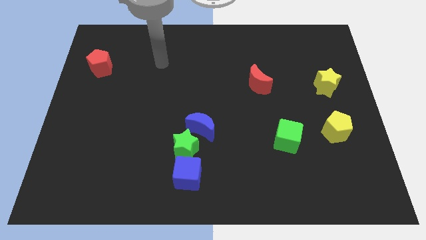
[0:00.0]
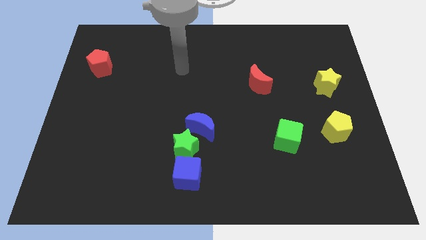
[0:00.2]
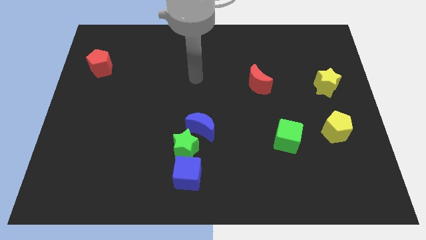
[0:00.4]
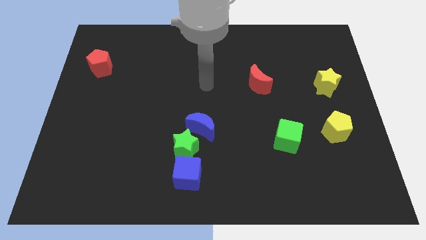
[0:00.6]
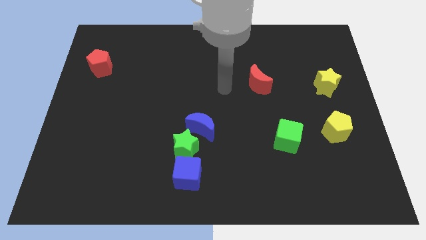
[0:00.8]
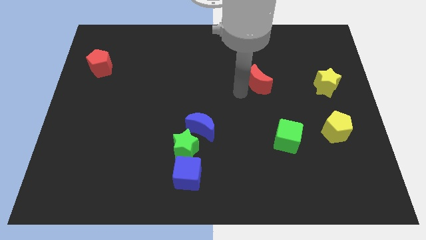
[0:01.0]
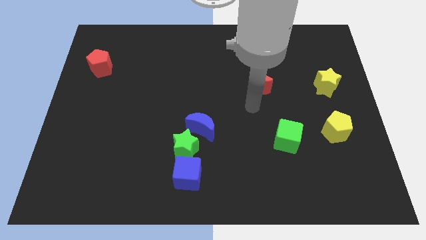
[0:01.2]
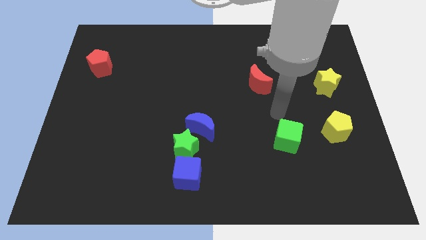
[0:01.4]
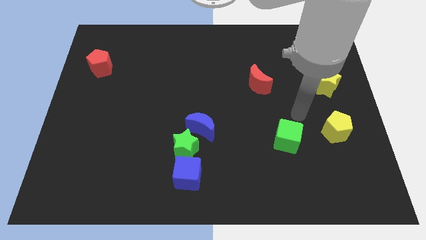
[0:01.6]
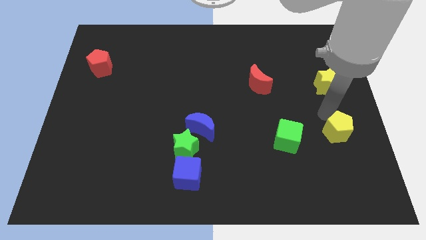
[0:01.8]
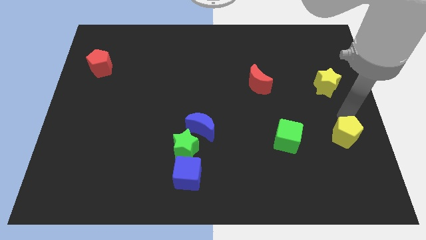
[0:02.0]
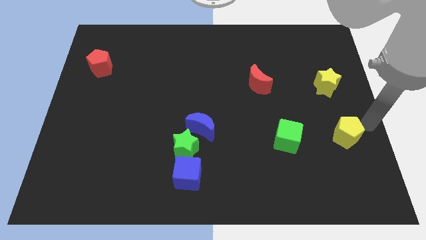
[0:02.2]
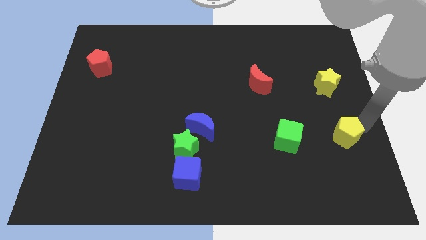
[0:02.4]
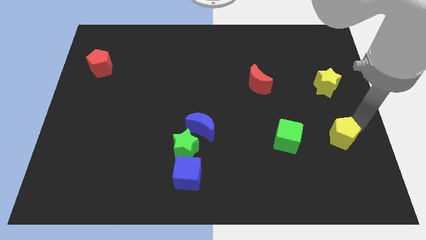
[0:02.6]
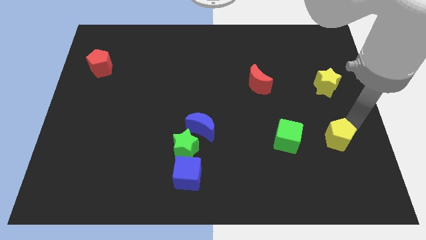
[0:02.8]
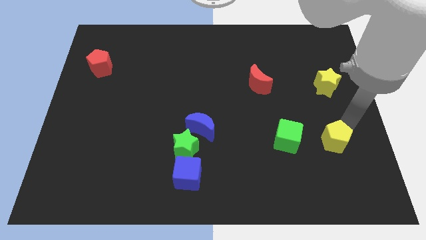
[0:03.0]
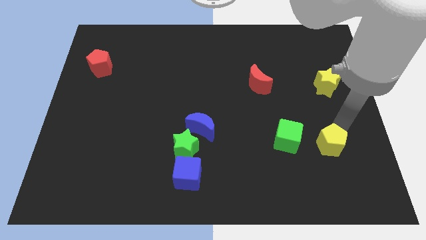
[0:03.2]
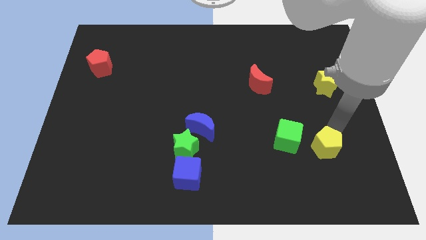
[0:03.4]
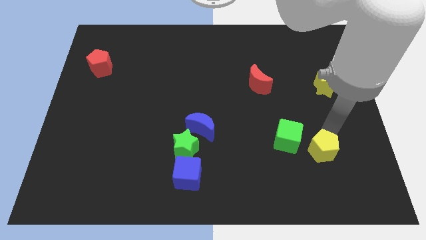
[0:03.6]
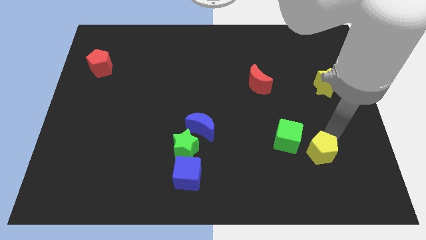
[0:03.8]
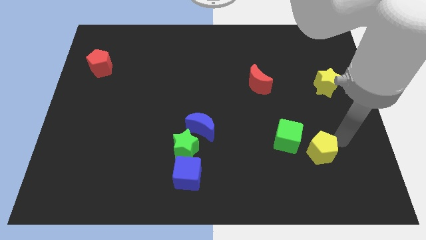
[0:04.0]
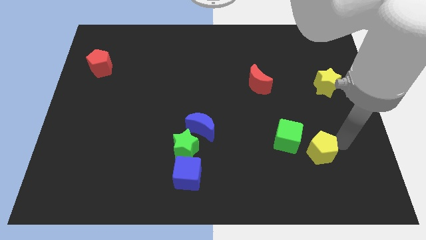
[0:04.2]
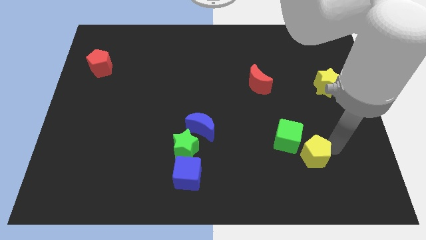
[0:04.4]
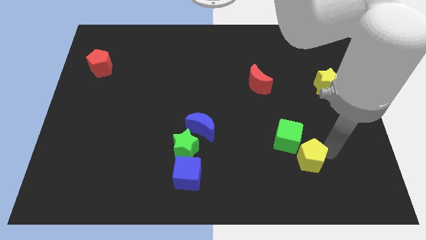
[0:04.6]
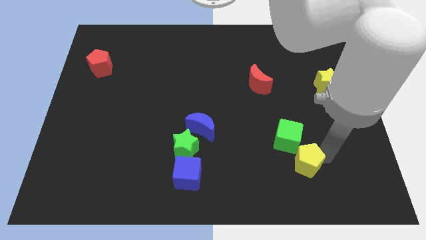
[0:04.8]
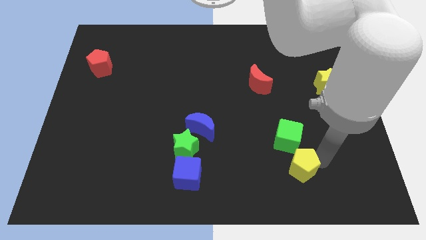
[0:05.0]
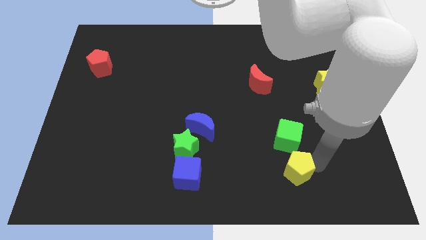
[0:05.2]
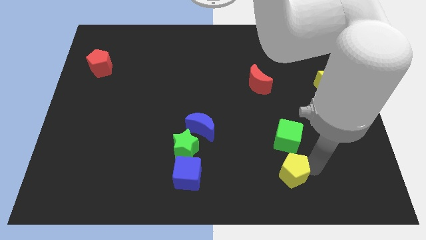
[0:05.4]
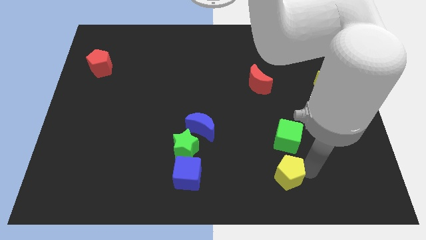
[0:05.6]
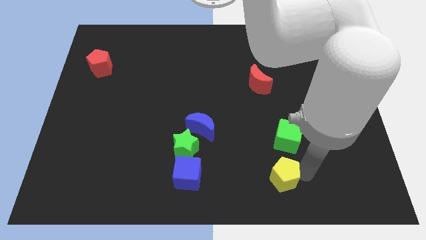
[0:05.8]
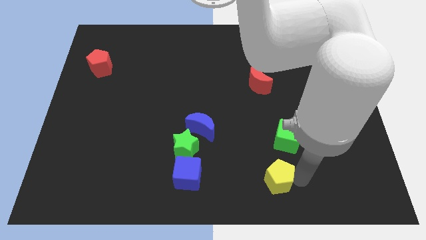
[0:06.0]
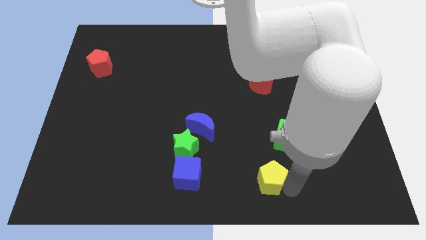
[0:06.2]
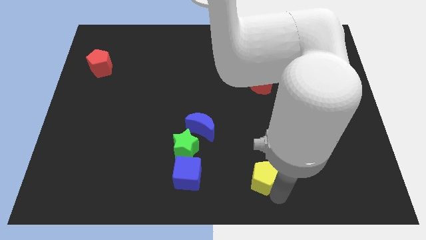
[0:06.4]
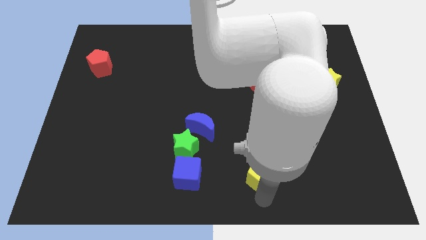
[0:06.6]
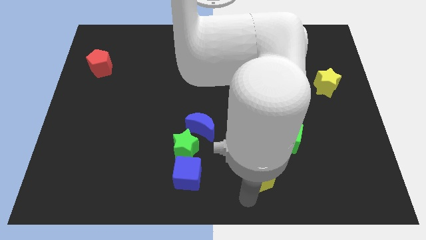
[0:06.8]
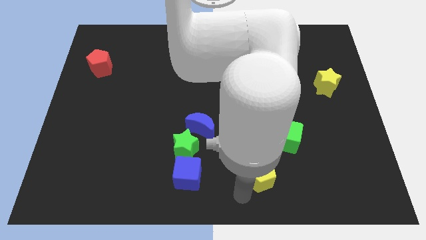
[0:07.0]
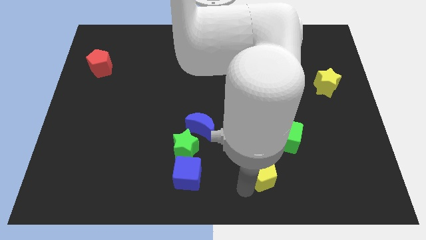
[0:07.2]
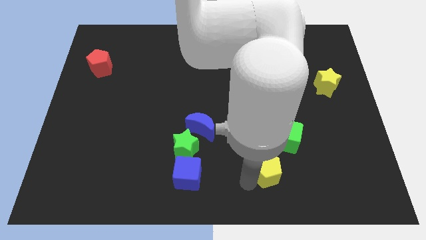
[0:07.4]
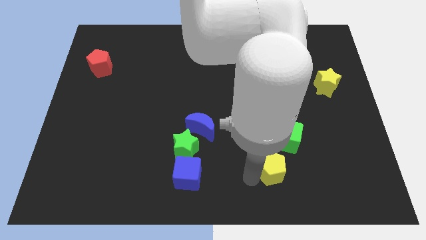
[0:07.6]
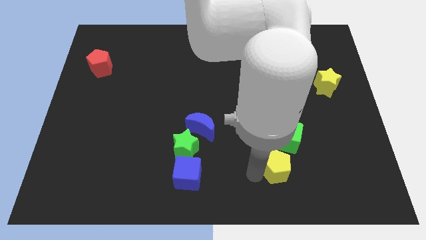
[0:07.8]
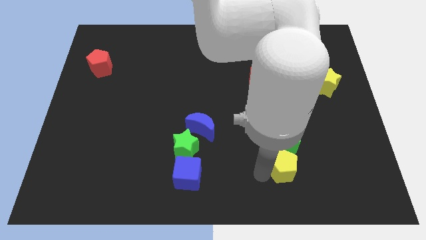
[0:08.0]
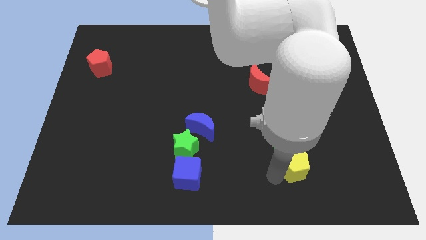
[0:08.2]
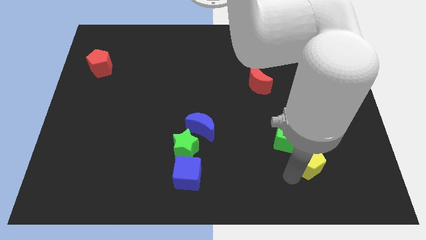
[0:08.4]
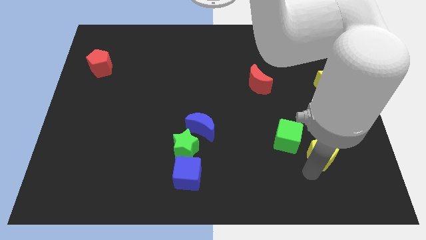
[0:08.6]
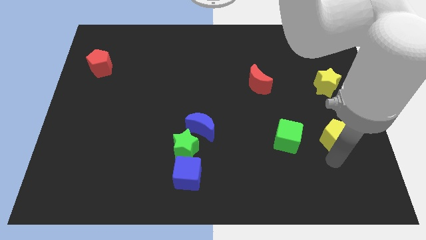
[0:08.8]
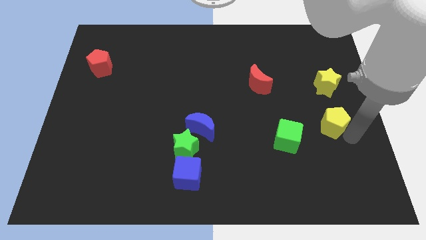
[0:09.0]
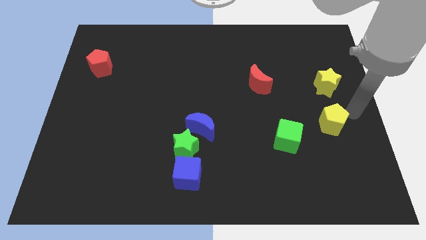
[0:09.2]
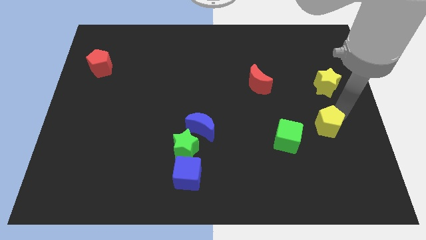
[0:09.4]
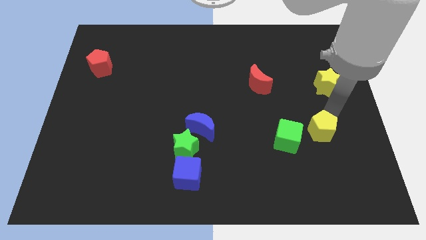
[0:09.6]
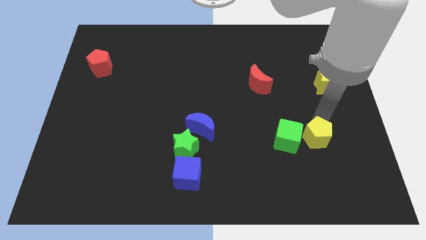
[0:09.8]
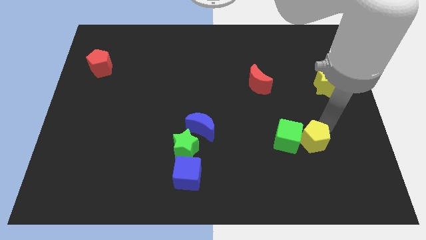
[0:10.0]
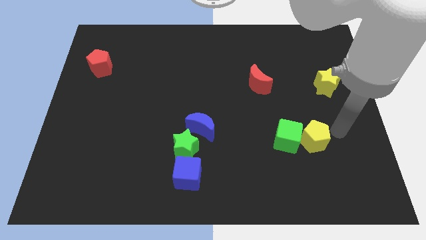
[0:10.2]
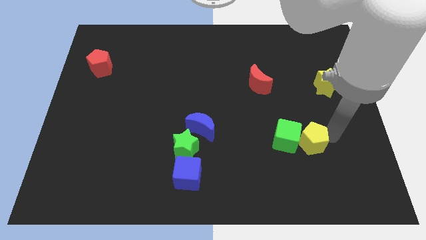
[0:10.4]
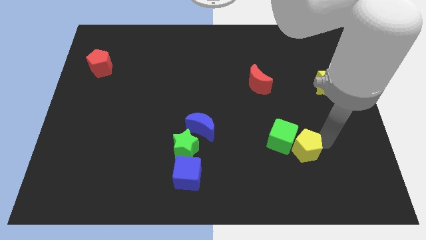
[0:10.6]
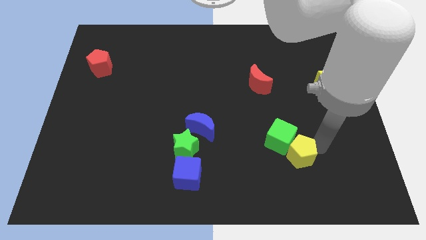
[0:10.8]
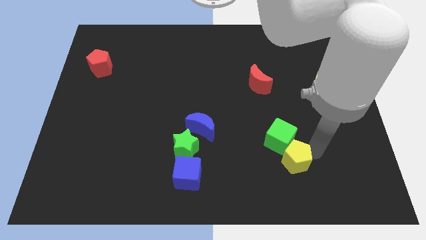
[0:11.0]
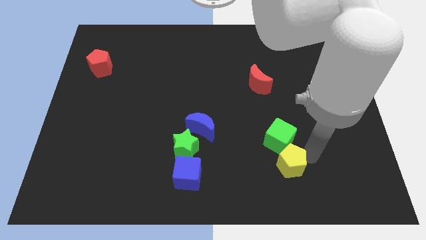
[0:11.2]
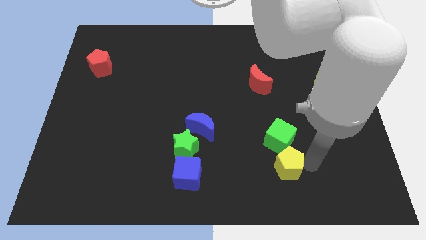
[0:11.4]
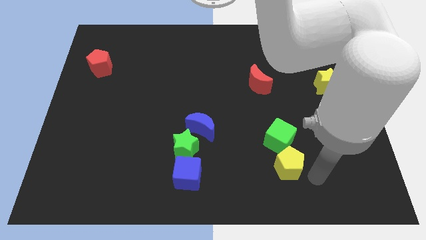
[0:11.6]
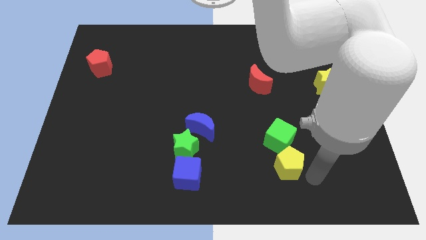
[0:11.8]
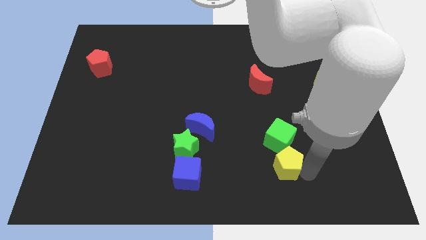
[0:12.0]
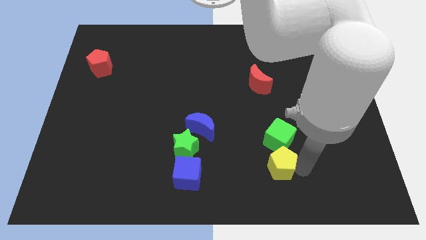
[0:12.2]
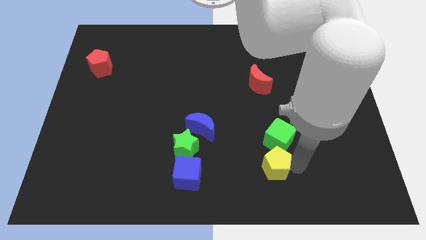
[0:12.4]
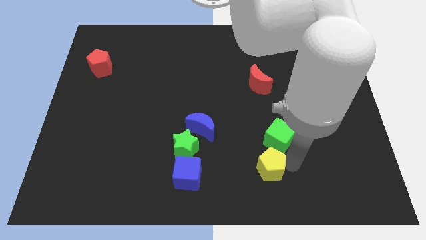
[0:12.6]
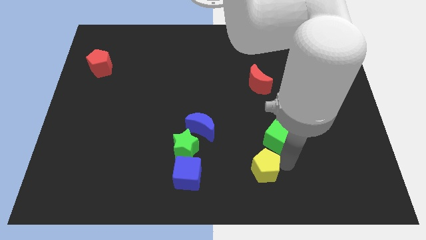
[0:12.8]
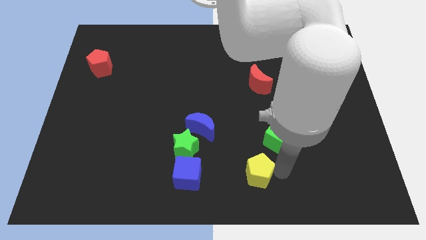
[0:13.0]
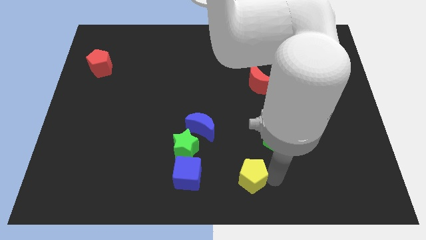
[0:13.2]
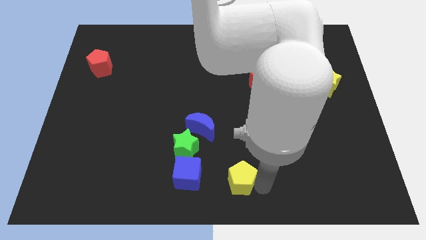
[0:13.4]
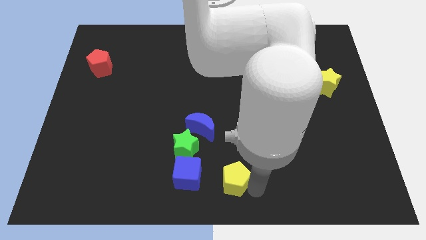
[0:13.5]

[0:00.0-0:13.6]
slide the yellow pentagon to the bottom right side of the green star

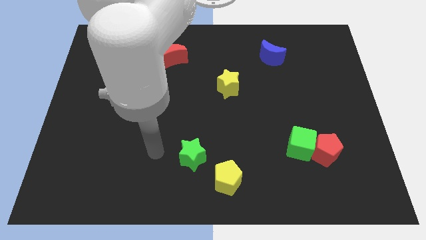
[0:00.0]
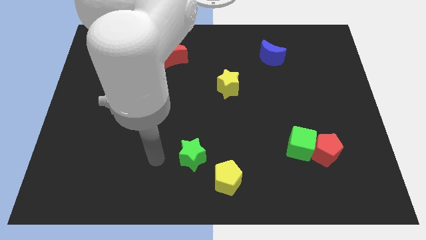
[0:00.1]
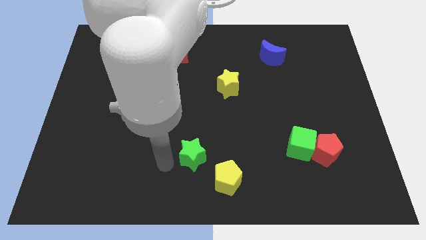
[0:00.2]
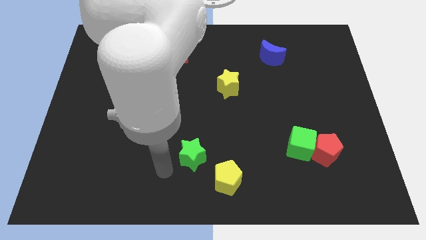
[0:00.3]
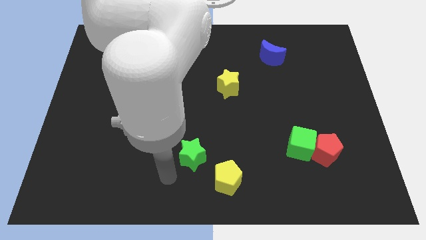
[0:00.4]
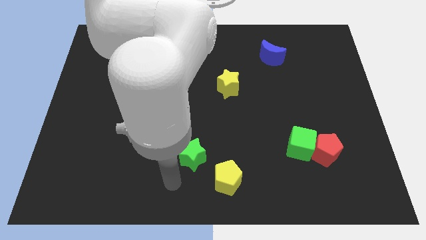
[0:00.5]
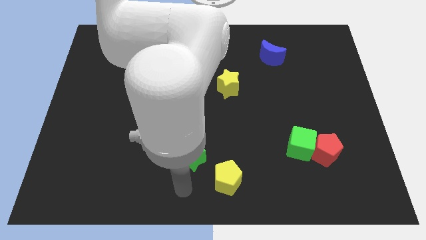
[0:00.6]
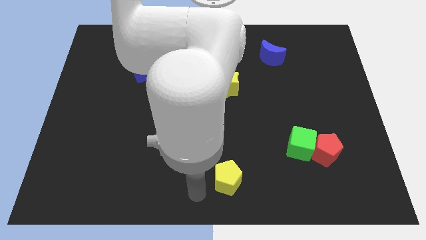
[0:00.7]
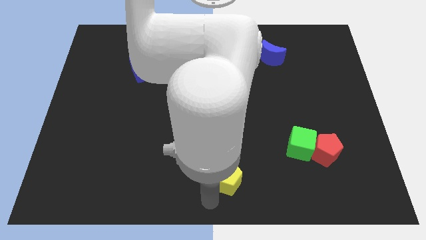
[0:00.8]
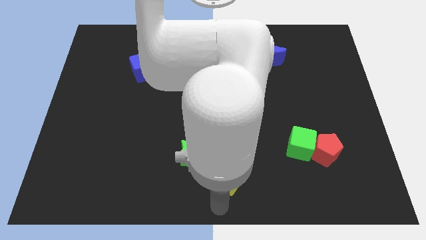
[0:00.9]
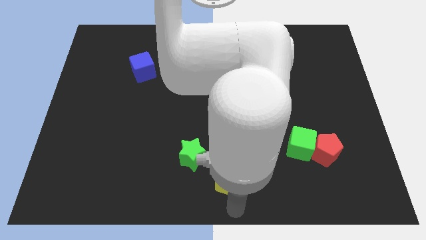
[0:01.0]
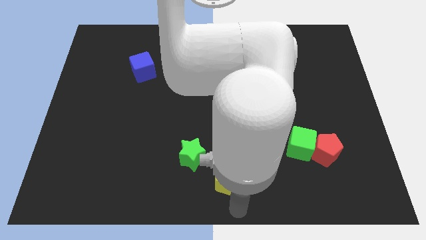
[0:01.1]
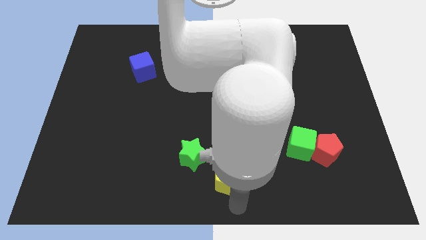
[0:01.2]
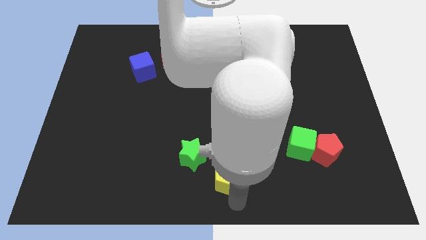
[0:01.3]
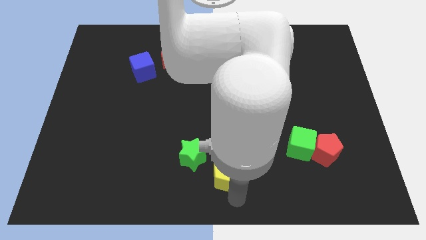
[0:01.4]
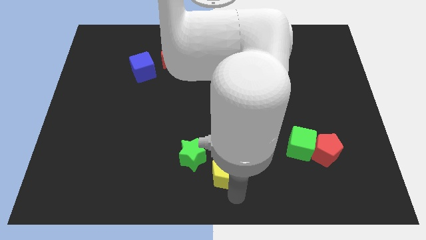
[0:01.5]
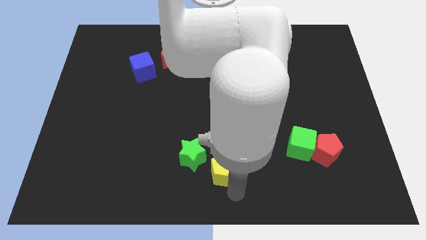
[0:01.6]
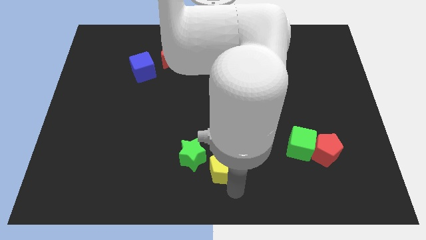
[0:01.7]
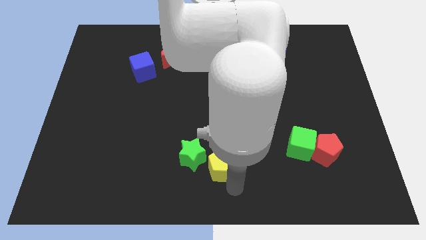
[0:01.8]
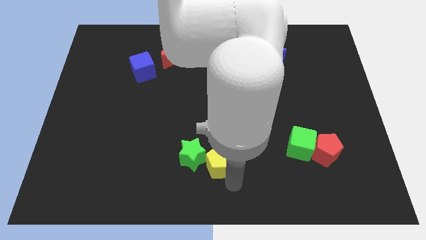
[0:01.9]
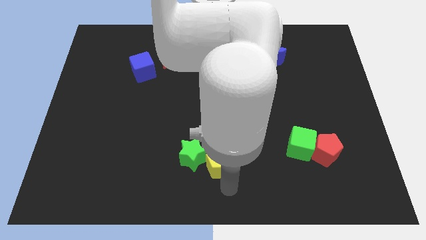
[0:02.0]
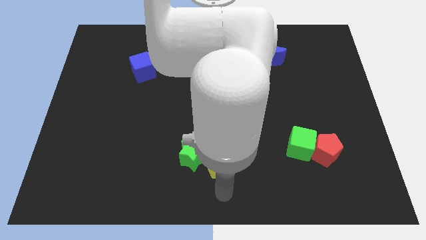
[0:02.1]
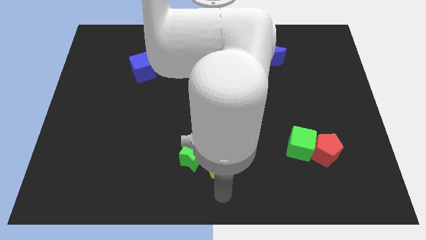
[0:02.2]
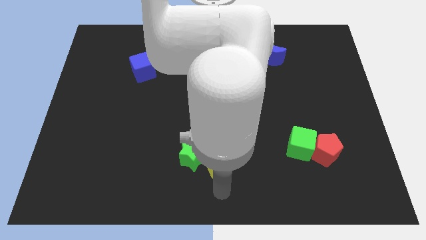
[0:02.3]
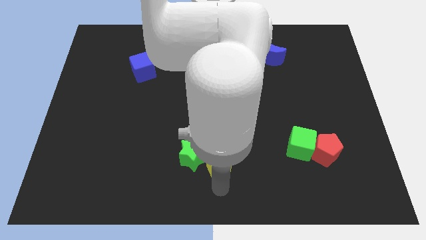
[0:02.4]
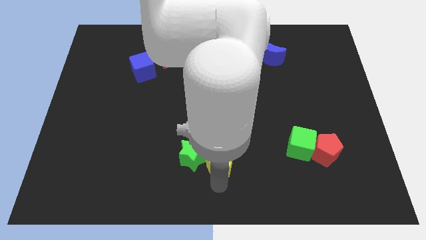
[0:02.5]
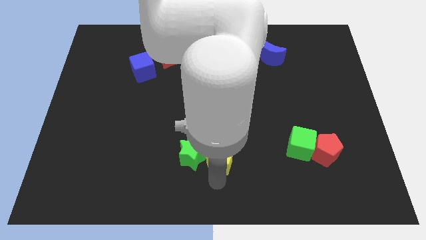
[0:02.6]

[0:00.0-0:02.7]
put the yellow pentagon diagonally up and to the right of the green star
